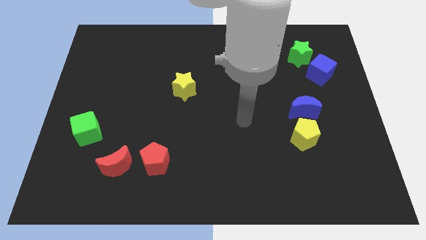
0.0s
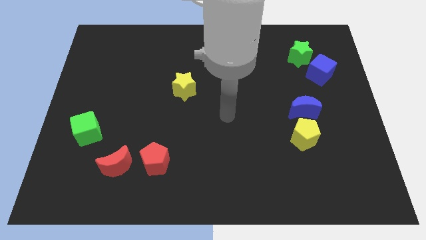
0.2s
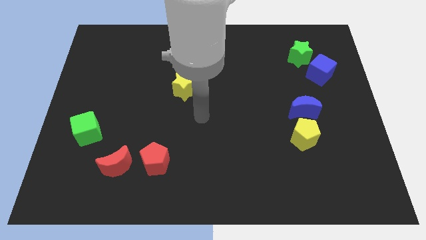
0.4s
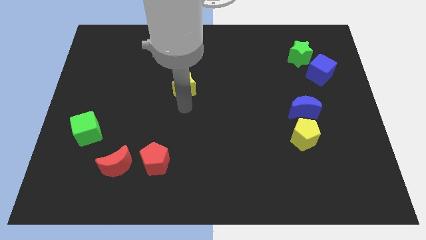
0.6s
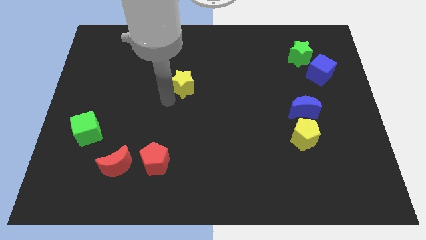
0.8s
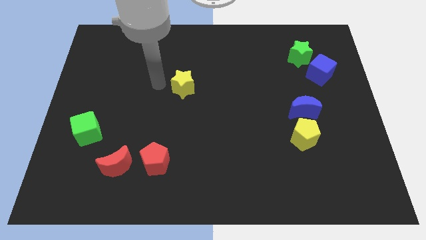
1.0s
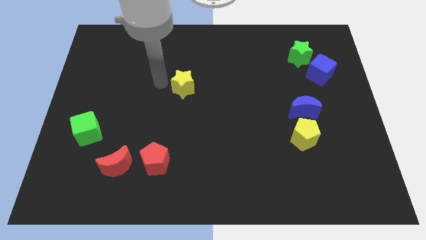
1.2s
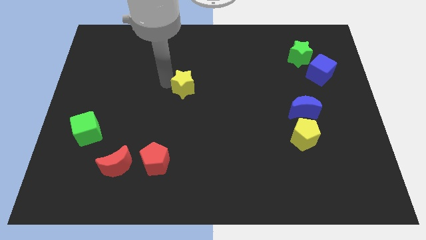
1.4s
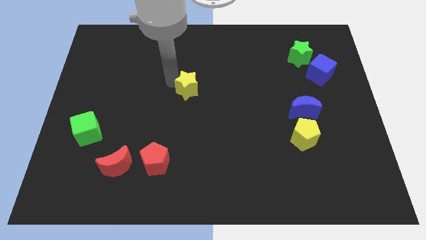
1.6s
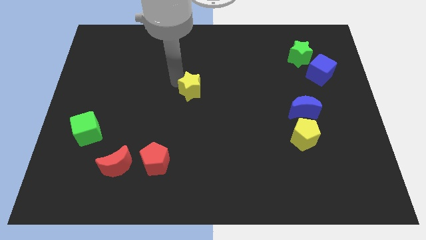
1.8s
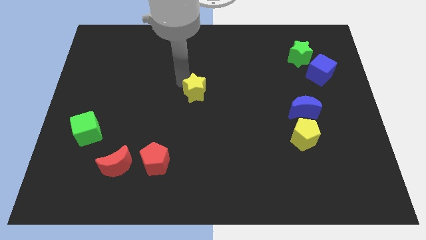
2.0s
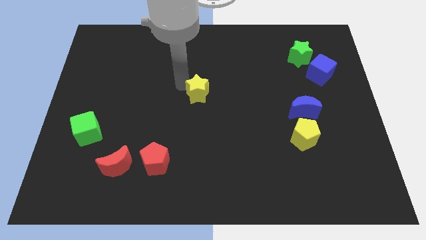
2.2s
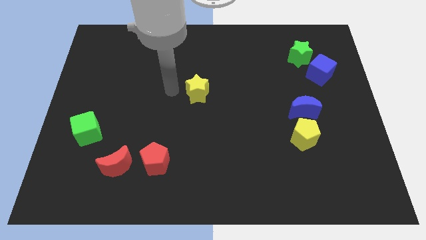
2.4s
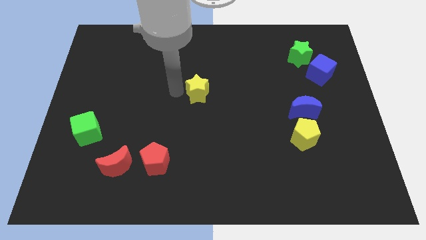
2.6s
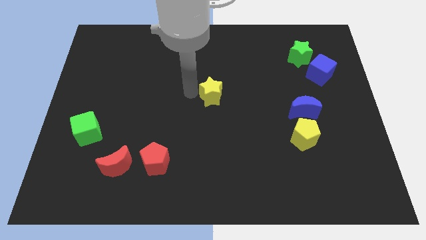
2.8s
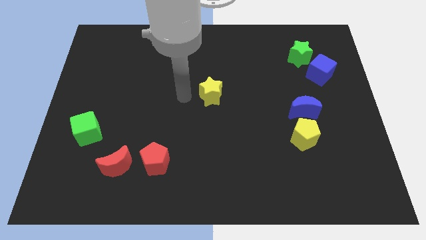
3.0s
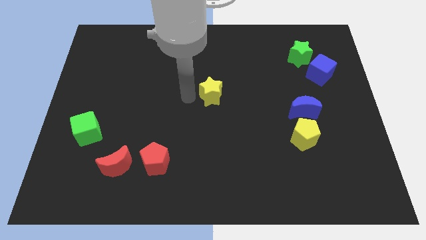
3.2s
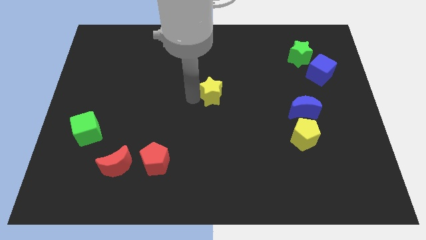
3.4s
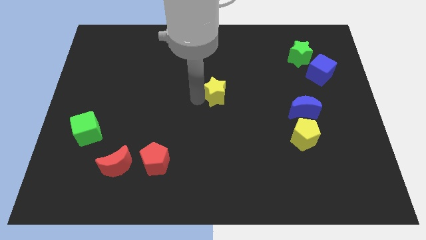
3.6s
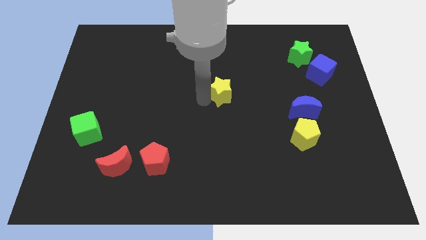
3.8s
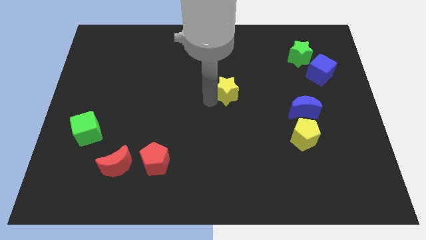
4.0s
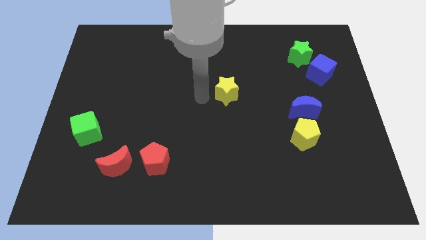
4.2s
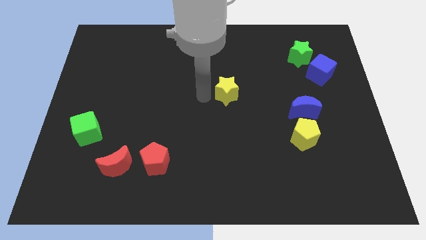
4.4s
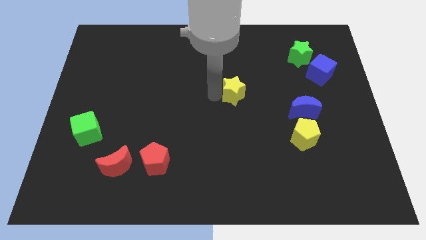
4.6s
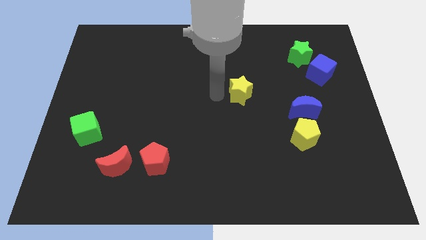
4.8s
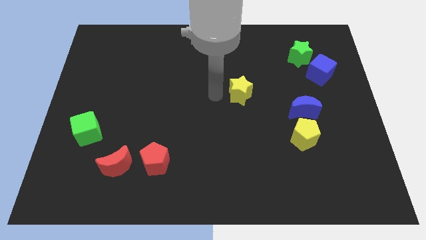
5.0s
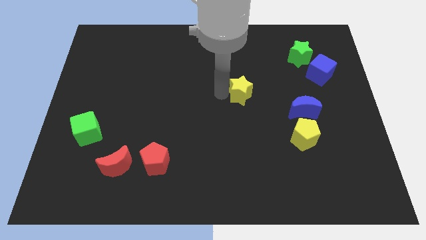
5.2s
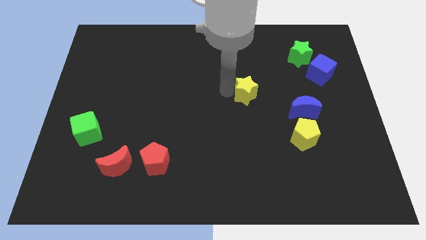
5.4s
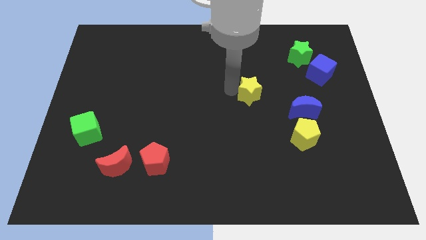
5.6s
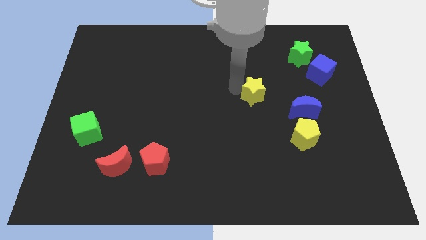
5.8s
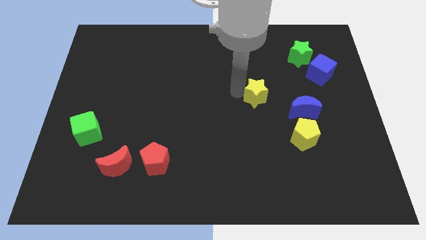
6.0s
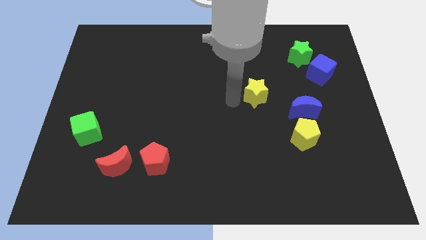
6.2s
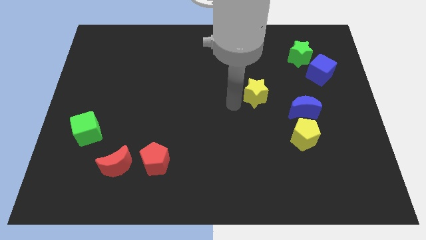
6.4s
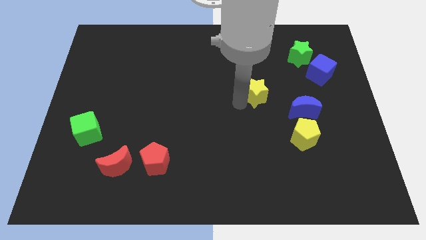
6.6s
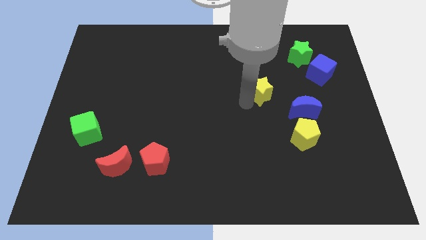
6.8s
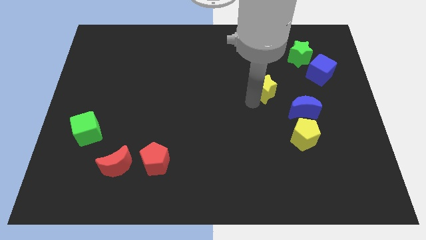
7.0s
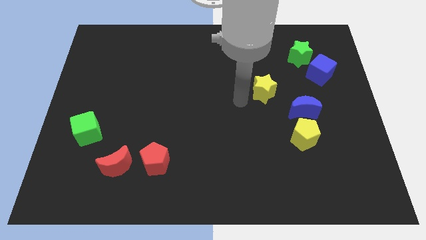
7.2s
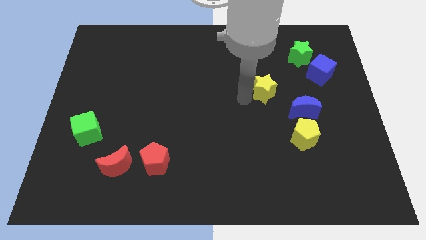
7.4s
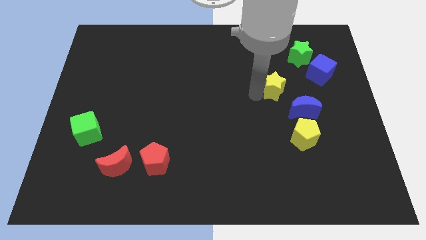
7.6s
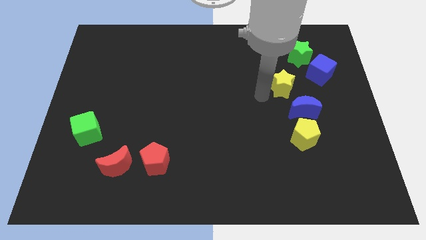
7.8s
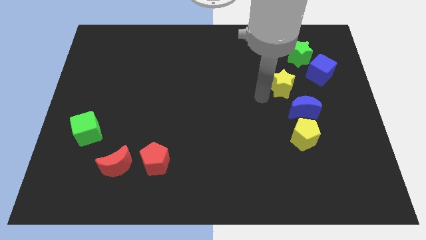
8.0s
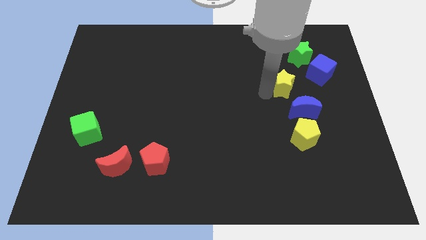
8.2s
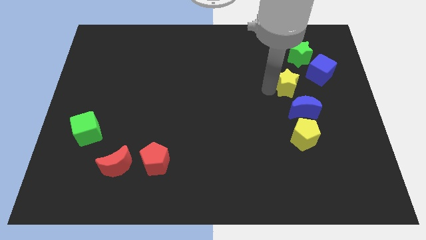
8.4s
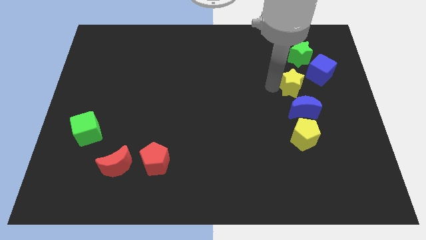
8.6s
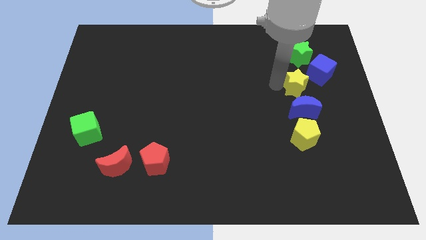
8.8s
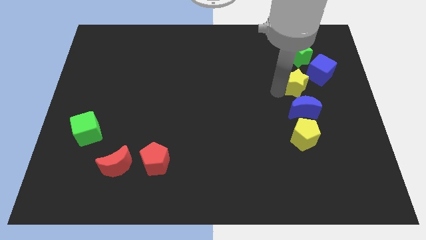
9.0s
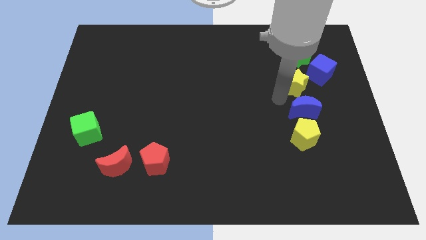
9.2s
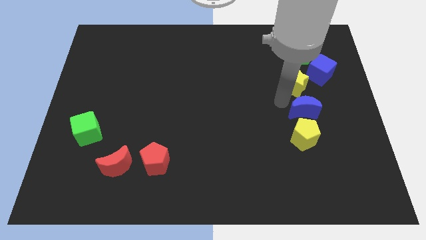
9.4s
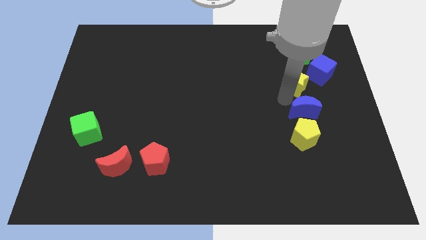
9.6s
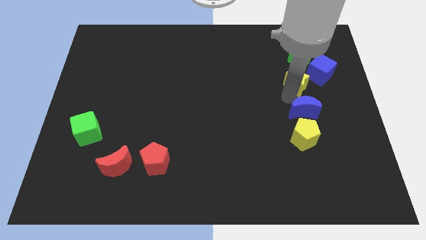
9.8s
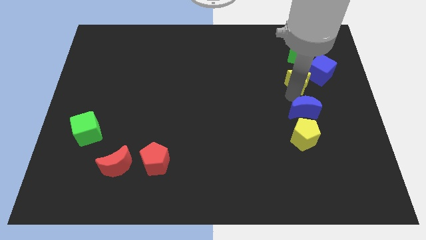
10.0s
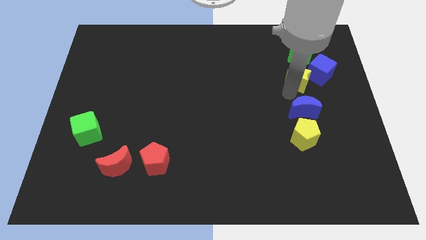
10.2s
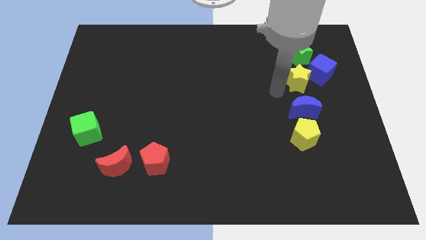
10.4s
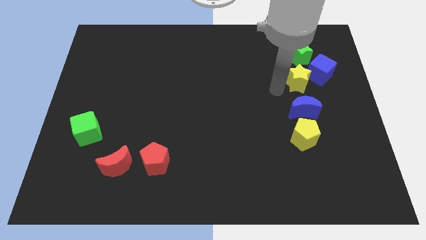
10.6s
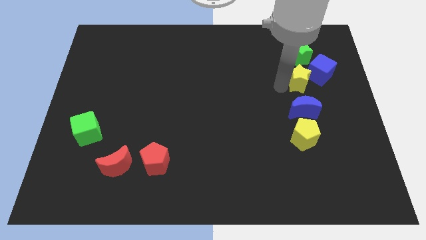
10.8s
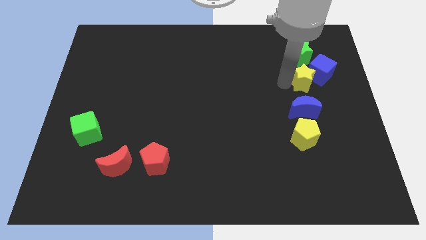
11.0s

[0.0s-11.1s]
put the yellow star towards the blue cube

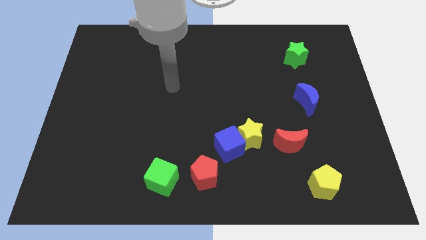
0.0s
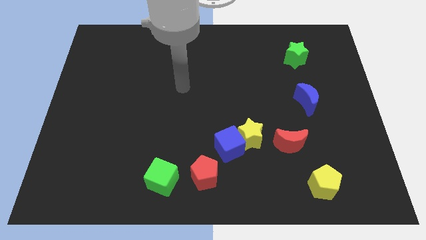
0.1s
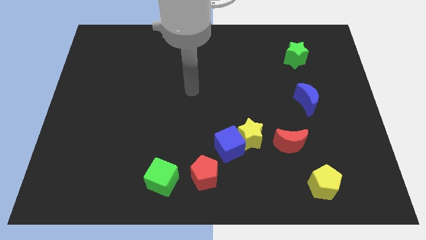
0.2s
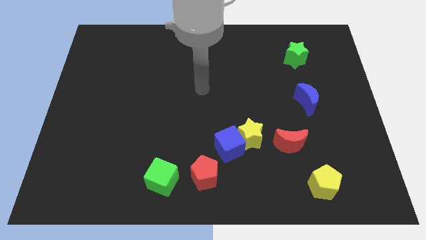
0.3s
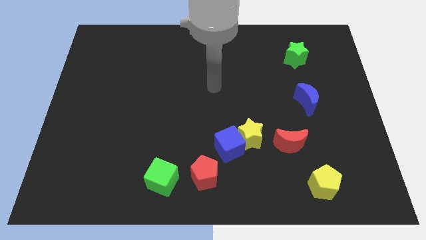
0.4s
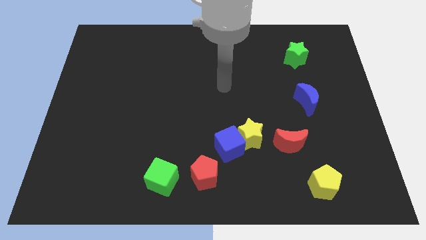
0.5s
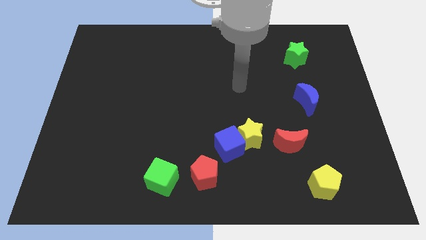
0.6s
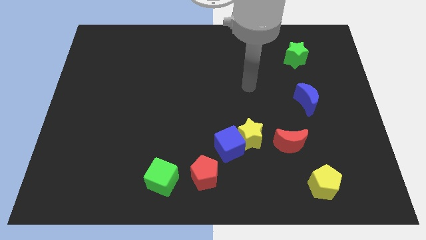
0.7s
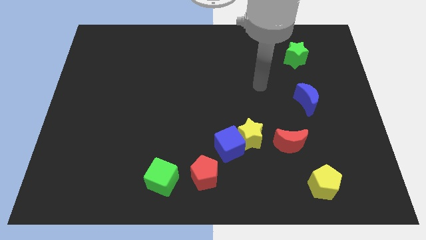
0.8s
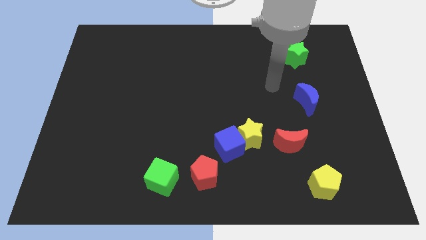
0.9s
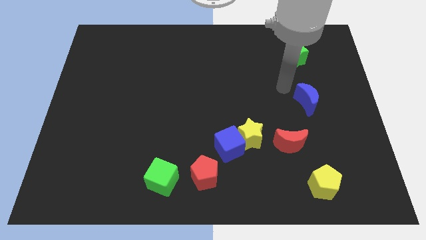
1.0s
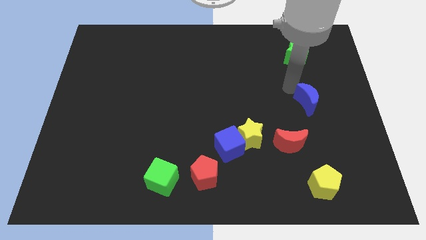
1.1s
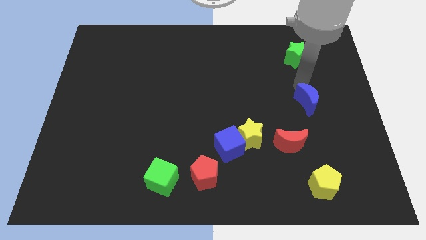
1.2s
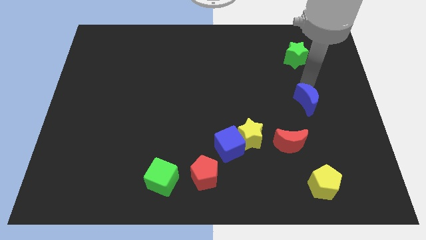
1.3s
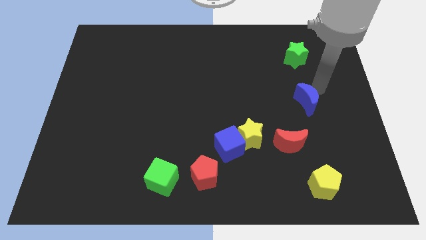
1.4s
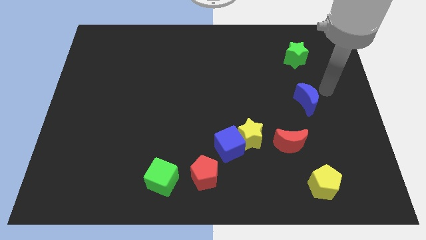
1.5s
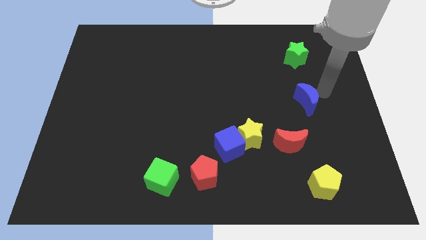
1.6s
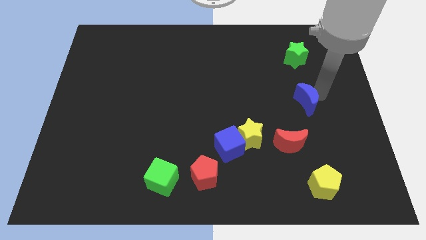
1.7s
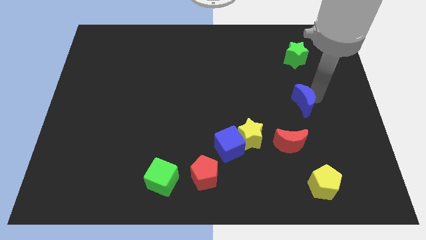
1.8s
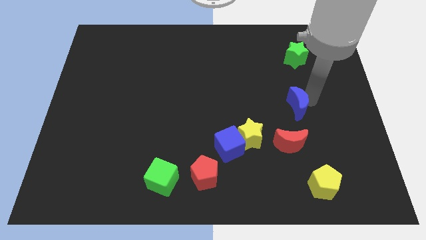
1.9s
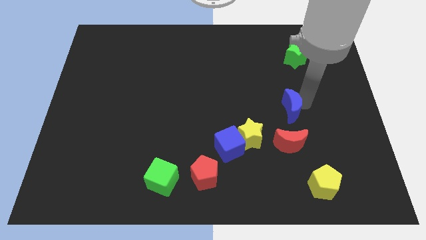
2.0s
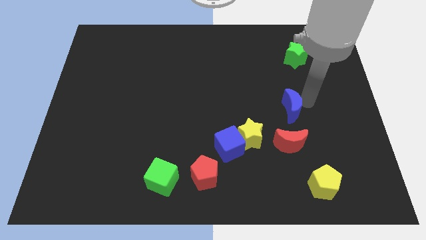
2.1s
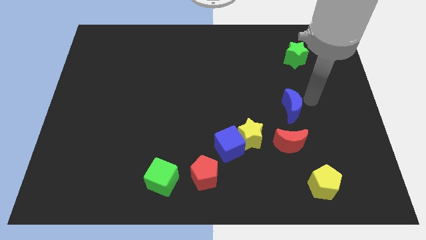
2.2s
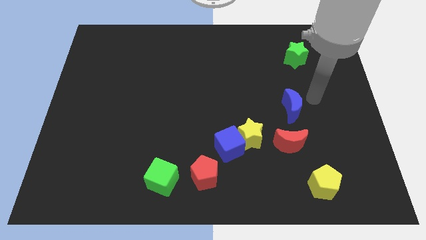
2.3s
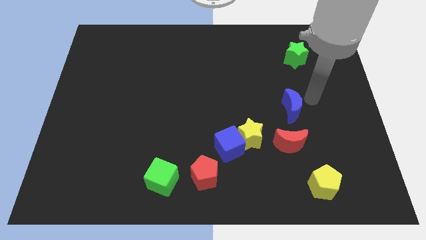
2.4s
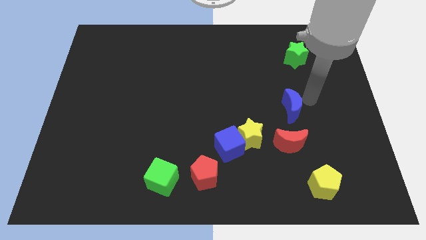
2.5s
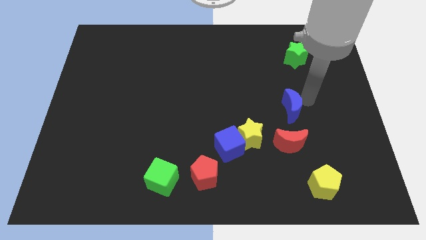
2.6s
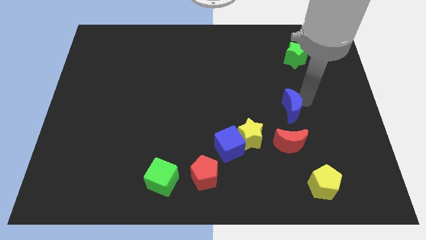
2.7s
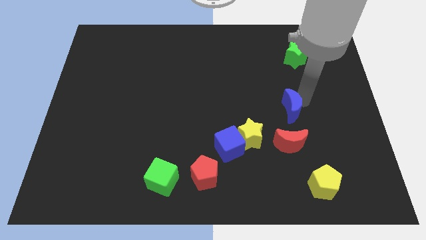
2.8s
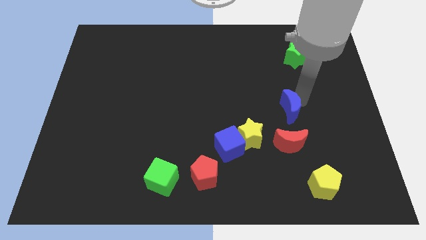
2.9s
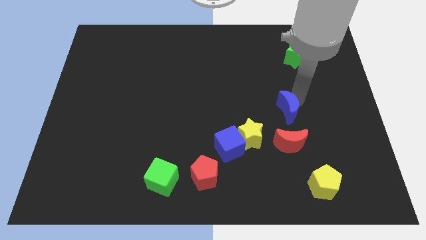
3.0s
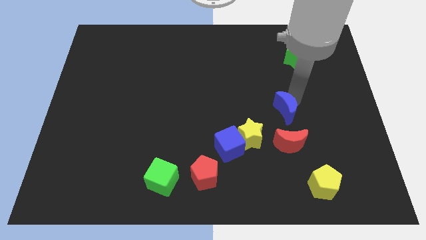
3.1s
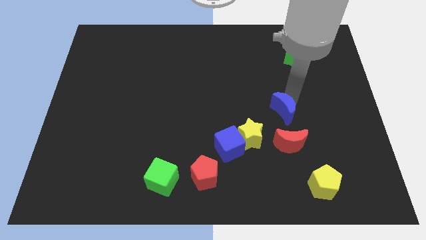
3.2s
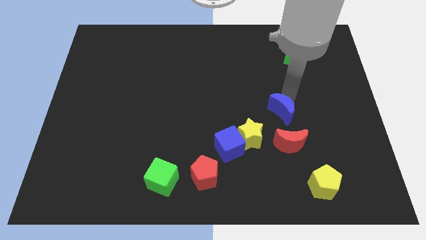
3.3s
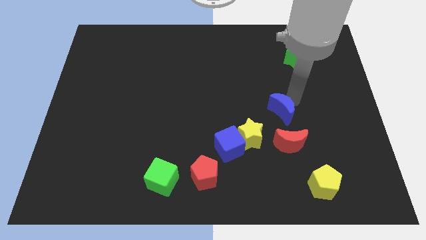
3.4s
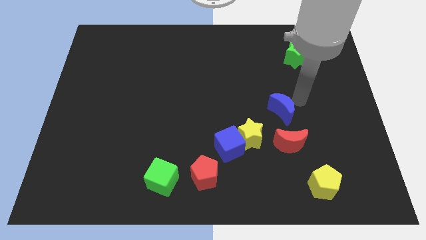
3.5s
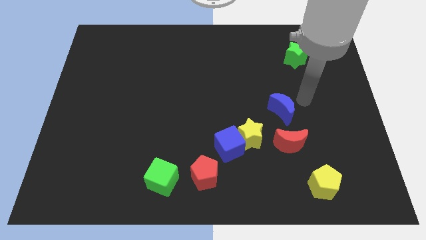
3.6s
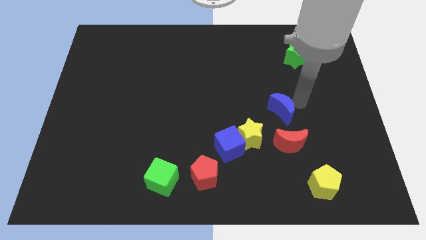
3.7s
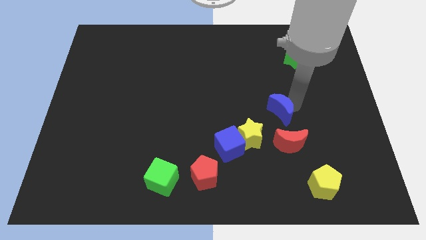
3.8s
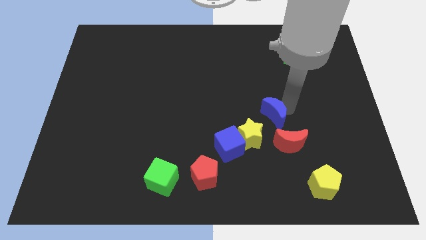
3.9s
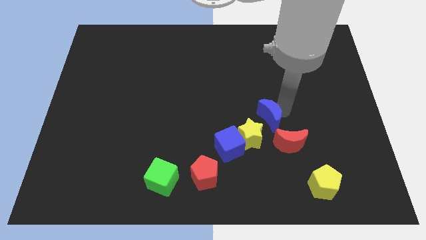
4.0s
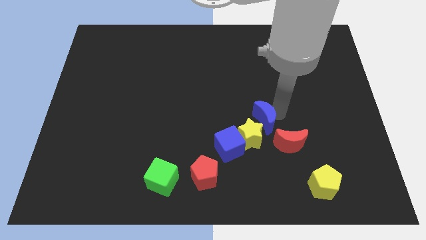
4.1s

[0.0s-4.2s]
push the blue moon towards the yellow star
